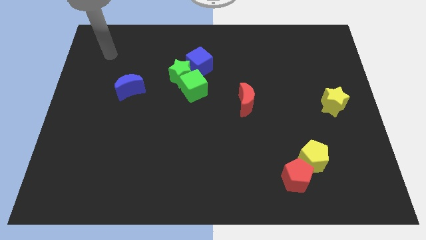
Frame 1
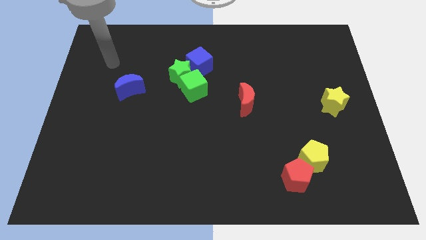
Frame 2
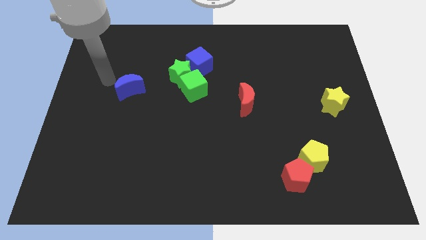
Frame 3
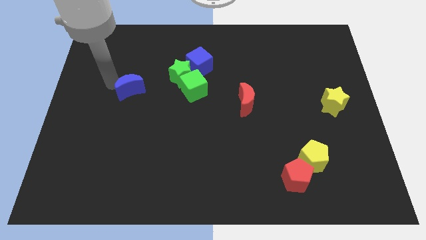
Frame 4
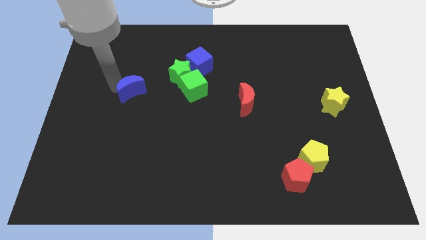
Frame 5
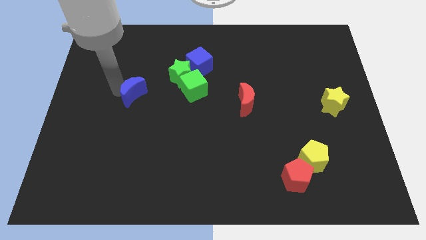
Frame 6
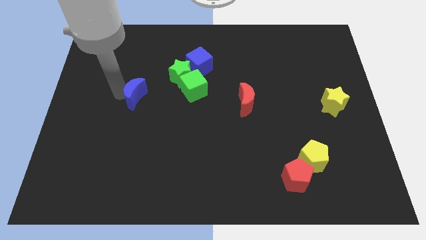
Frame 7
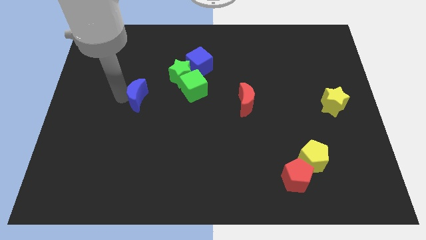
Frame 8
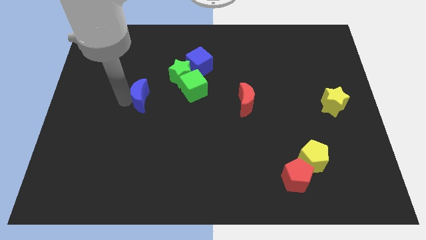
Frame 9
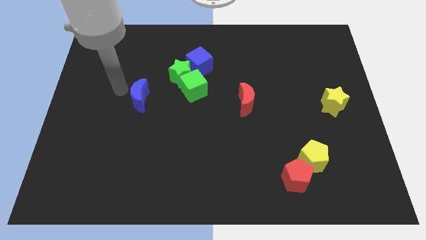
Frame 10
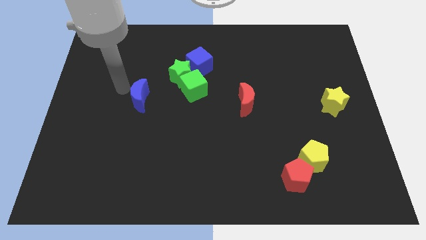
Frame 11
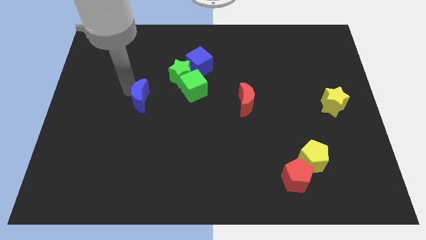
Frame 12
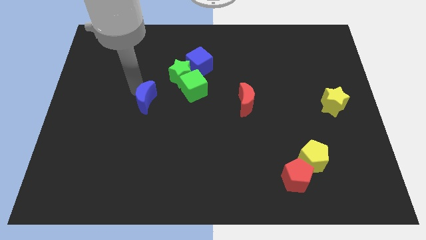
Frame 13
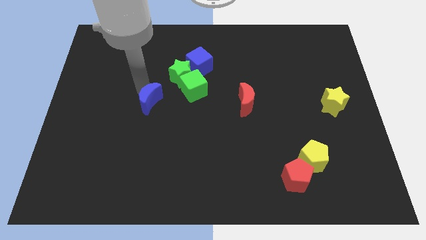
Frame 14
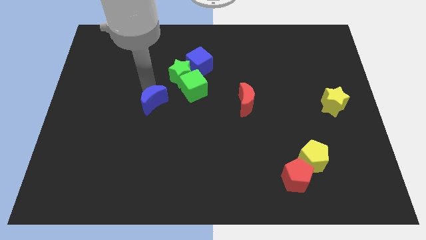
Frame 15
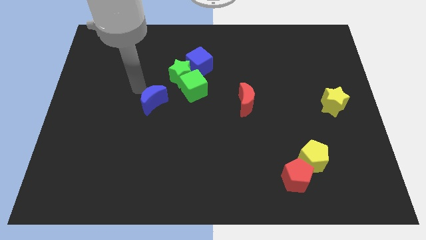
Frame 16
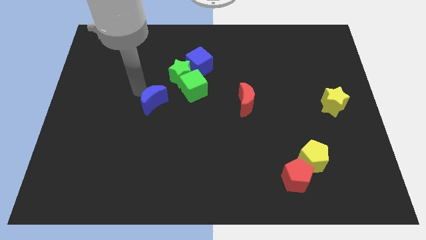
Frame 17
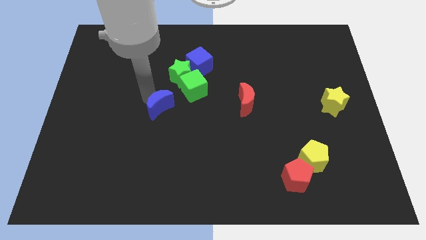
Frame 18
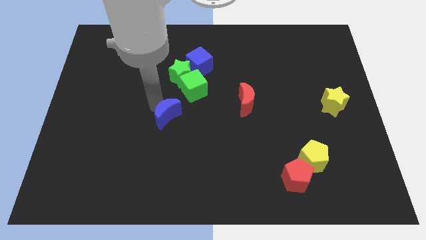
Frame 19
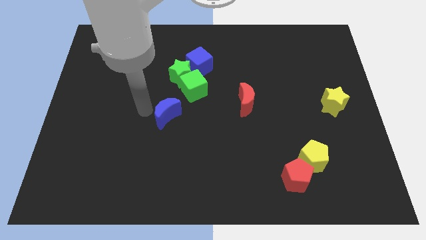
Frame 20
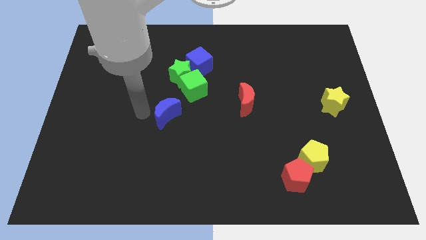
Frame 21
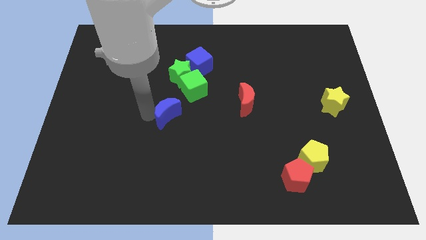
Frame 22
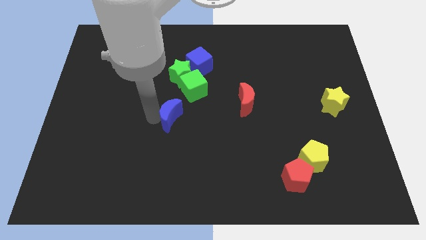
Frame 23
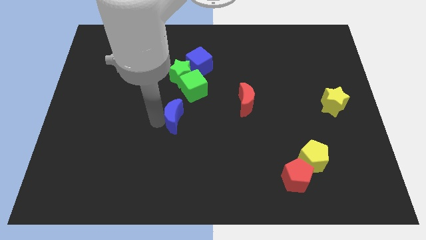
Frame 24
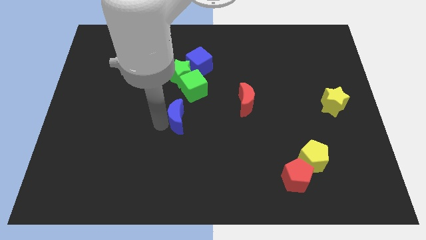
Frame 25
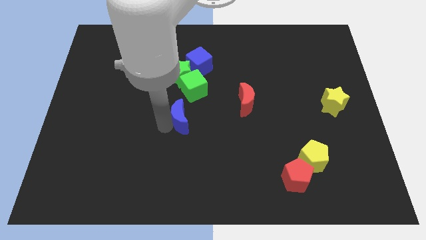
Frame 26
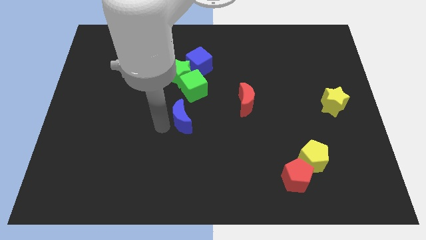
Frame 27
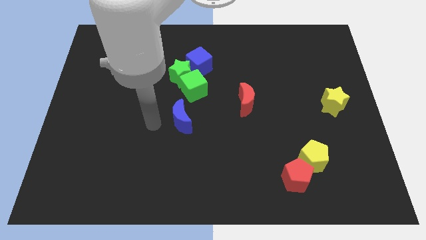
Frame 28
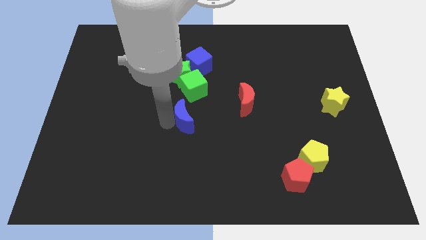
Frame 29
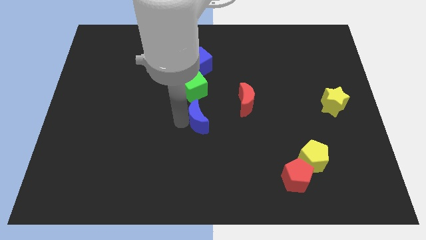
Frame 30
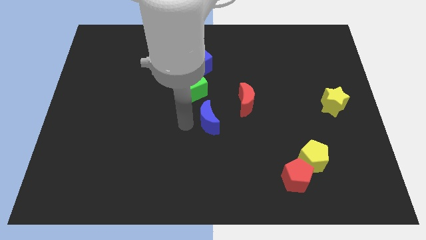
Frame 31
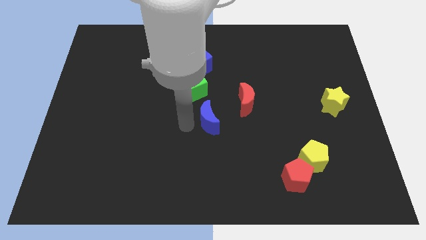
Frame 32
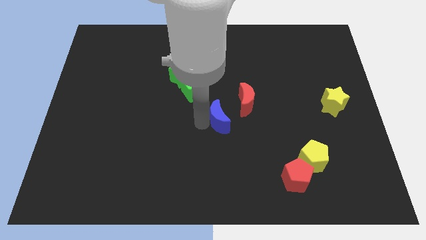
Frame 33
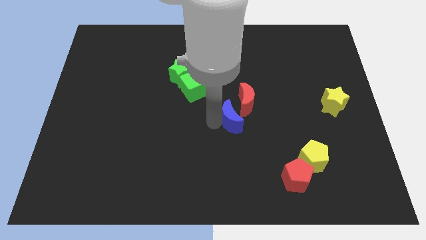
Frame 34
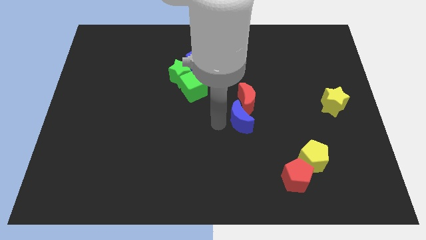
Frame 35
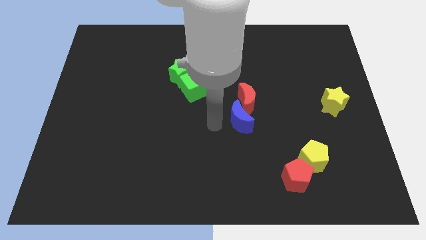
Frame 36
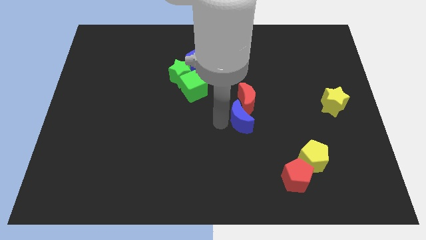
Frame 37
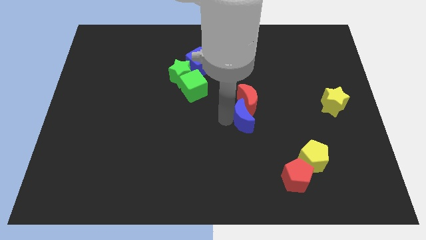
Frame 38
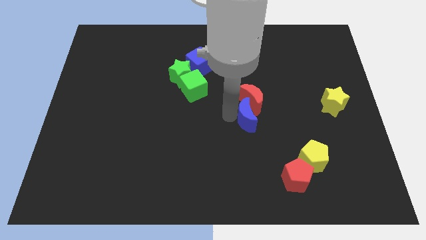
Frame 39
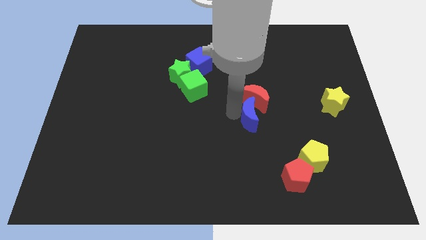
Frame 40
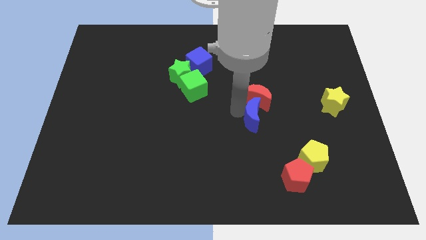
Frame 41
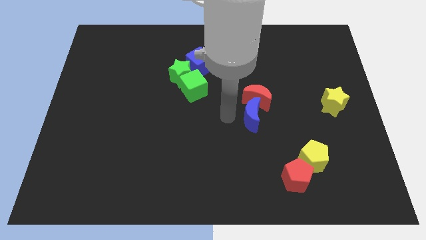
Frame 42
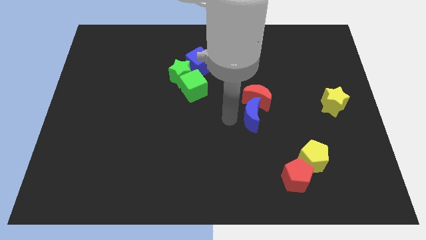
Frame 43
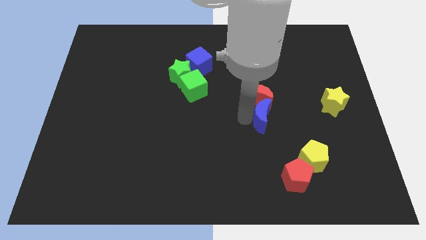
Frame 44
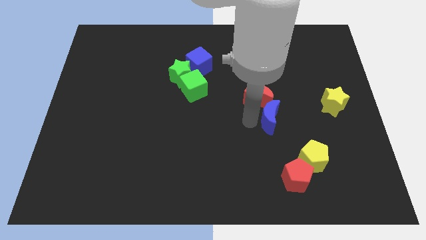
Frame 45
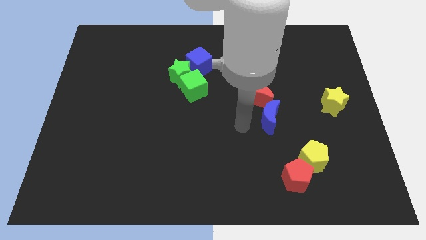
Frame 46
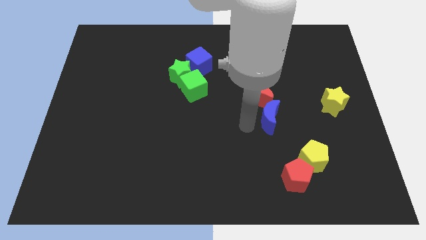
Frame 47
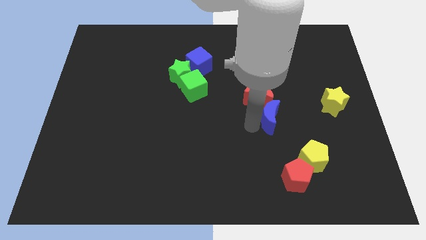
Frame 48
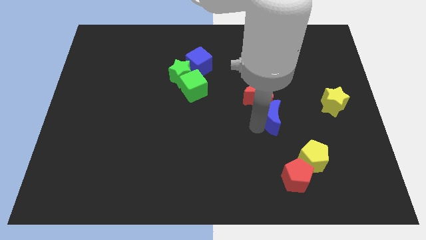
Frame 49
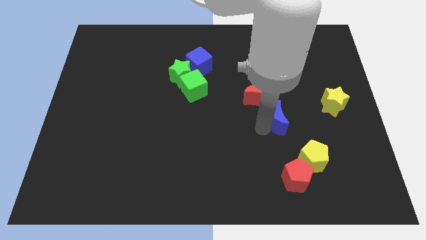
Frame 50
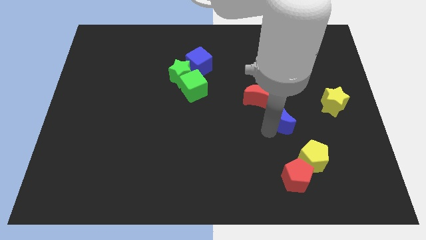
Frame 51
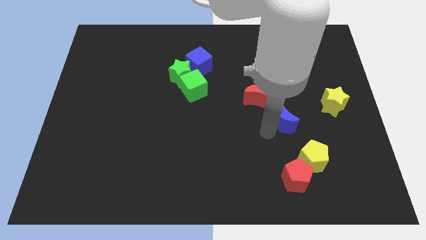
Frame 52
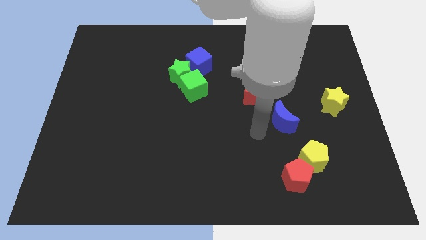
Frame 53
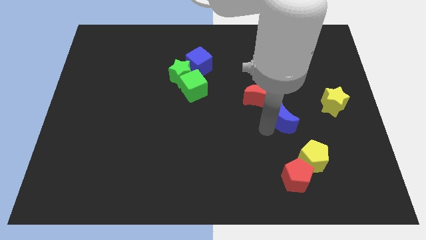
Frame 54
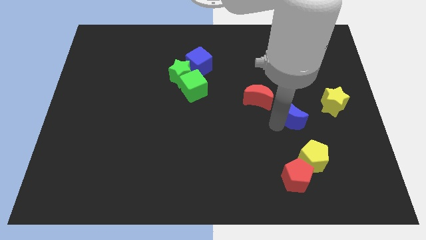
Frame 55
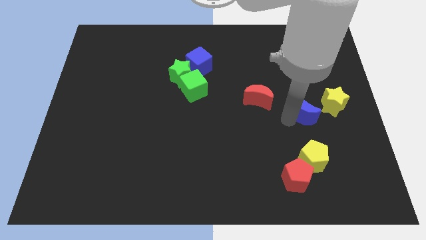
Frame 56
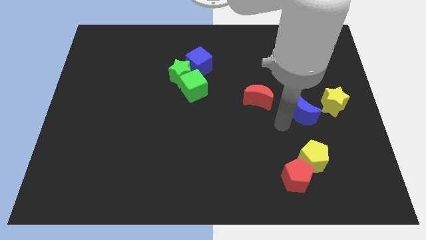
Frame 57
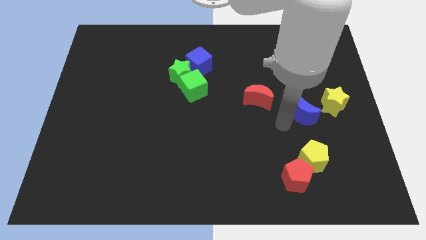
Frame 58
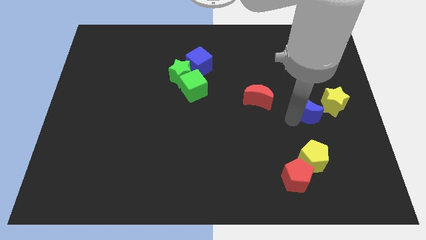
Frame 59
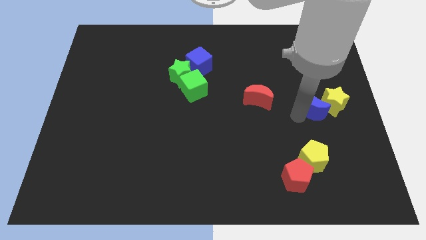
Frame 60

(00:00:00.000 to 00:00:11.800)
push the blue moon towards the yellow star
